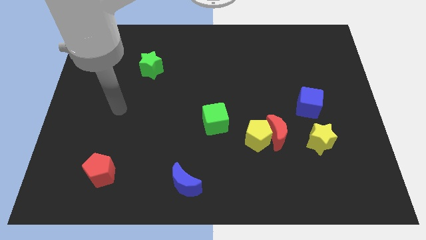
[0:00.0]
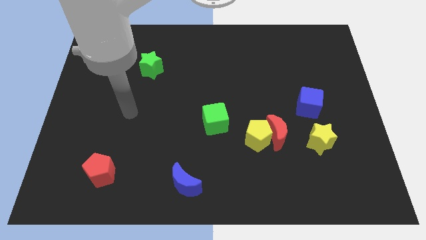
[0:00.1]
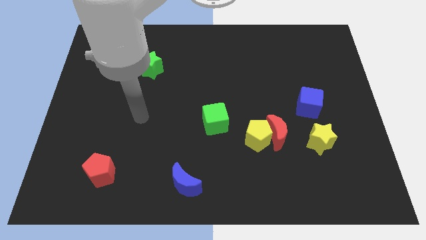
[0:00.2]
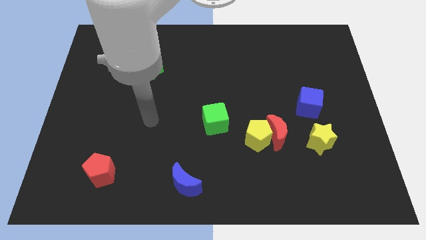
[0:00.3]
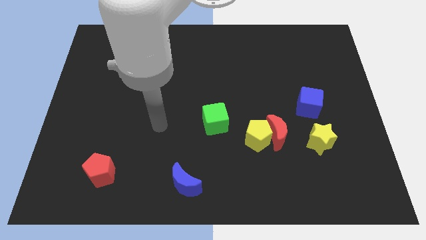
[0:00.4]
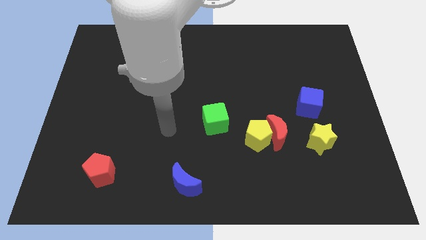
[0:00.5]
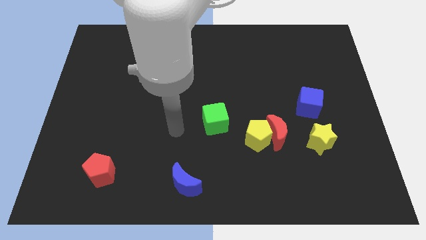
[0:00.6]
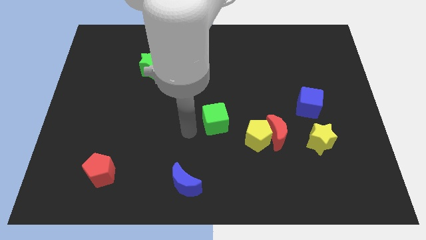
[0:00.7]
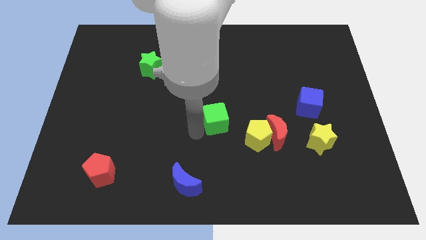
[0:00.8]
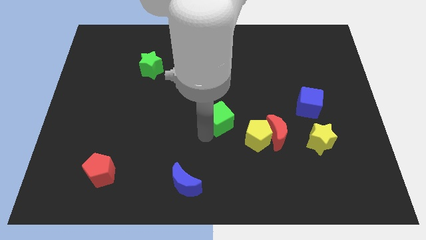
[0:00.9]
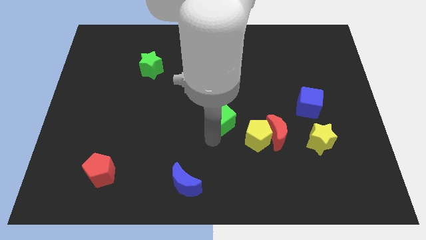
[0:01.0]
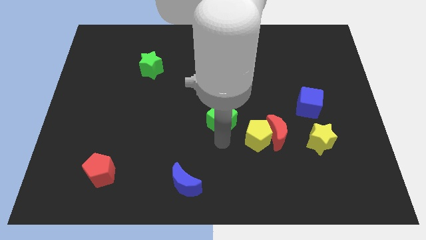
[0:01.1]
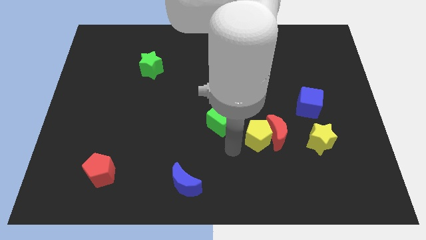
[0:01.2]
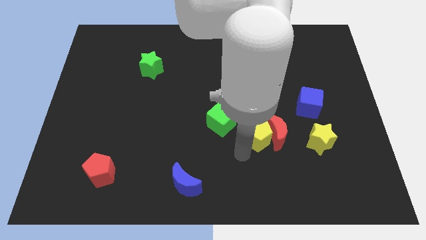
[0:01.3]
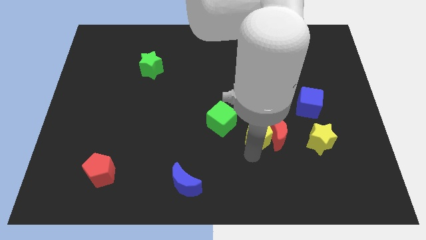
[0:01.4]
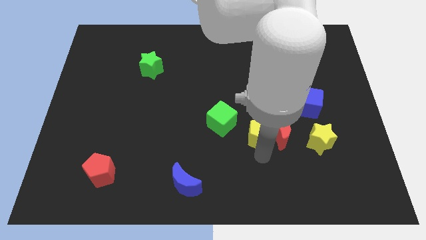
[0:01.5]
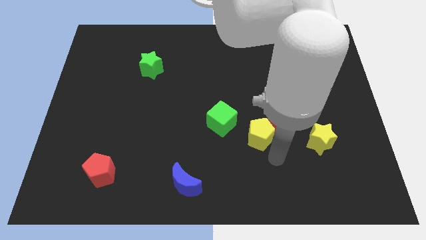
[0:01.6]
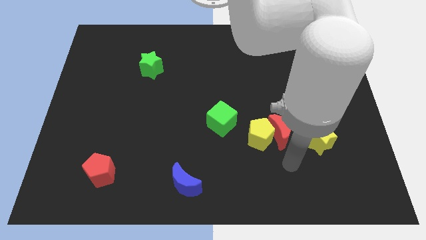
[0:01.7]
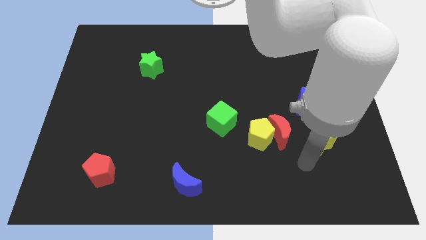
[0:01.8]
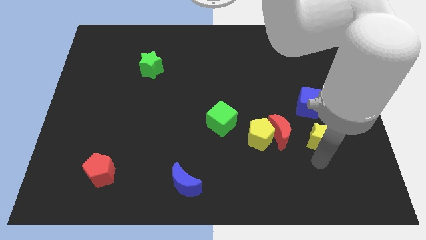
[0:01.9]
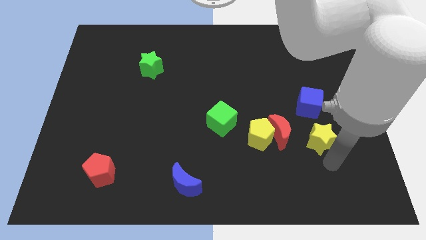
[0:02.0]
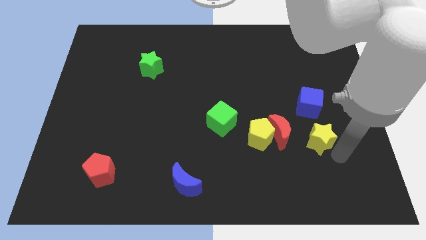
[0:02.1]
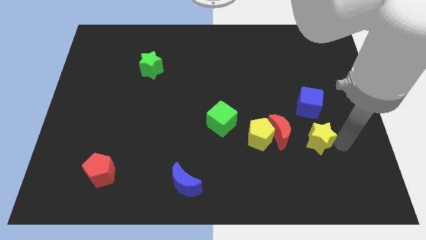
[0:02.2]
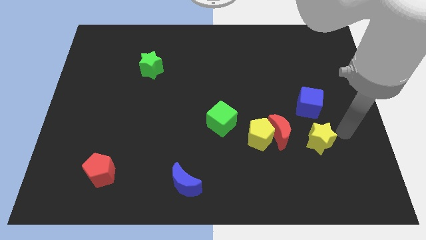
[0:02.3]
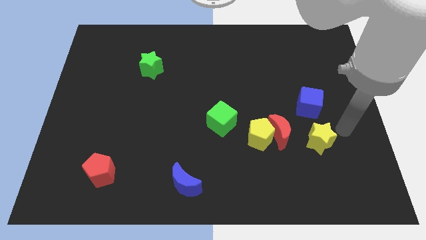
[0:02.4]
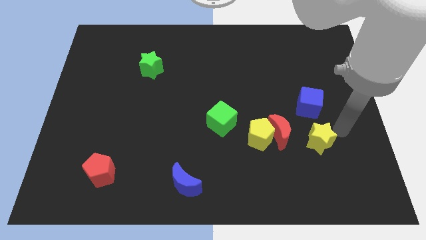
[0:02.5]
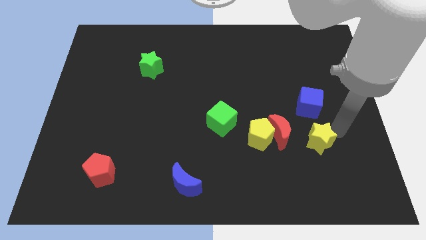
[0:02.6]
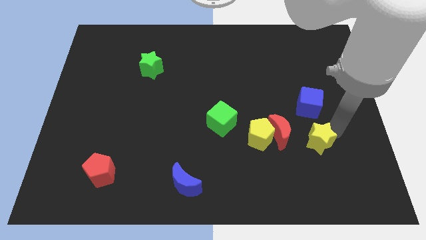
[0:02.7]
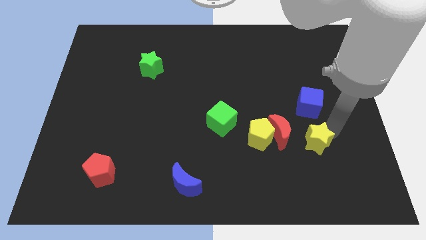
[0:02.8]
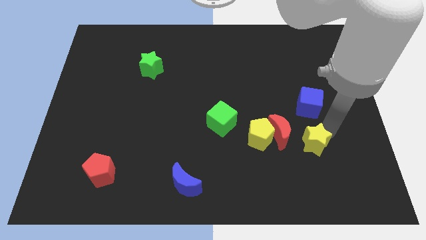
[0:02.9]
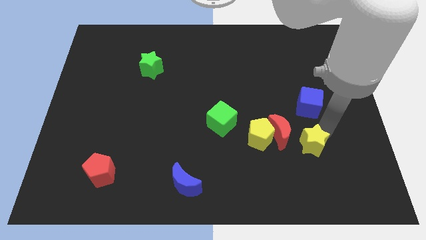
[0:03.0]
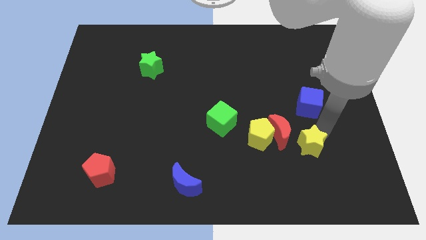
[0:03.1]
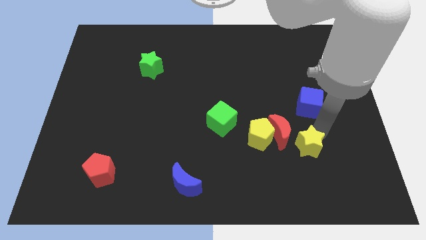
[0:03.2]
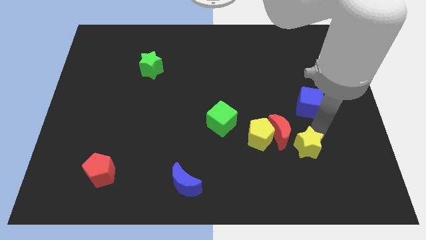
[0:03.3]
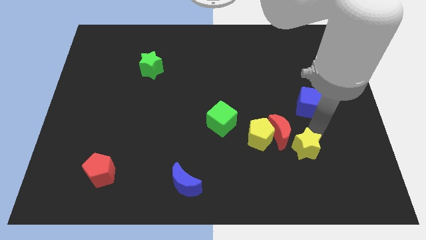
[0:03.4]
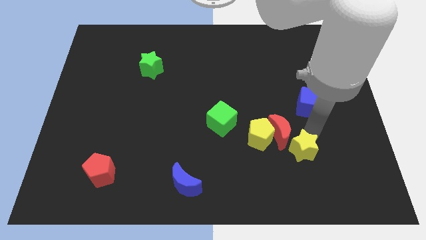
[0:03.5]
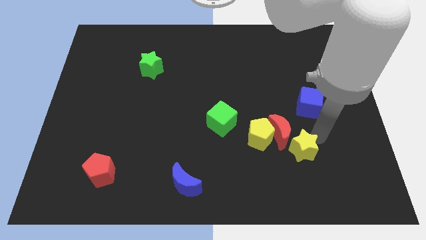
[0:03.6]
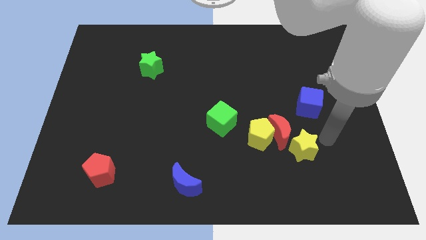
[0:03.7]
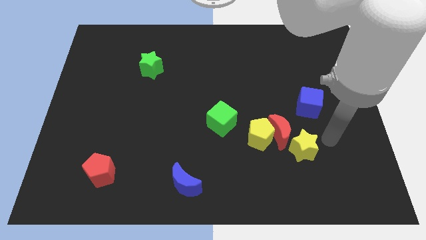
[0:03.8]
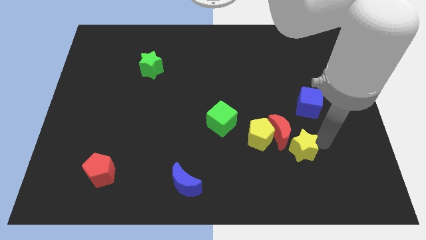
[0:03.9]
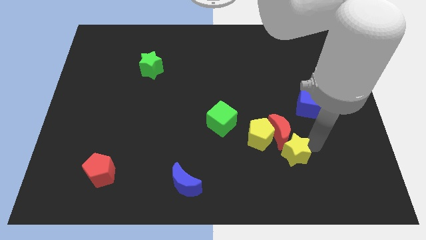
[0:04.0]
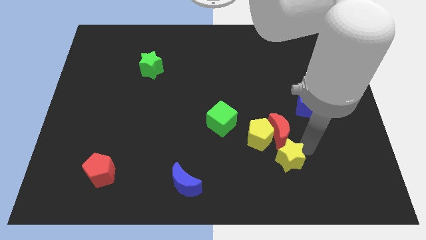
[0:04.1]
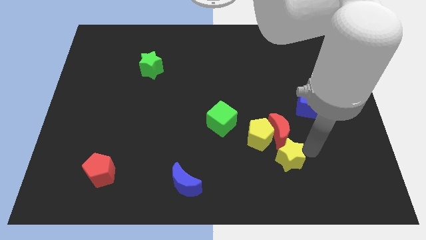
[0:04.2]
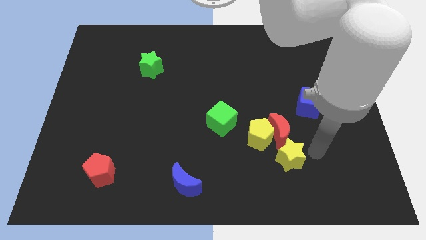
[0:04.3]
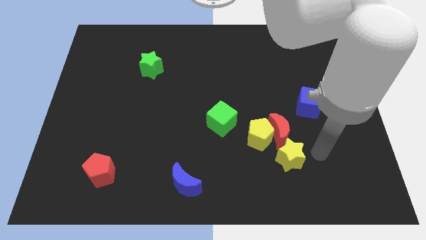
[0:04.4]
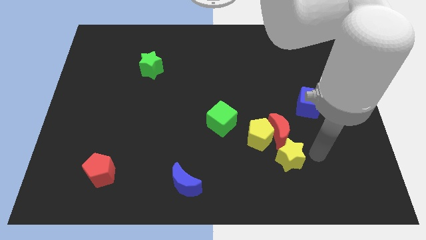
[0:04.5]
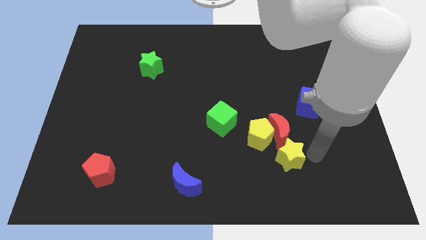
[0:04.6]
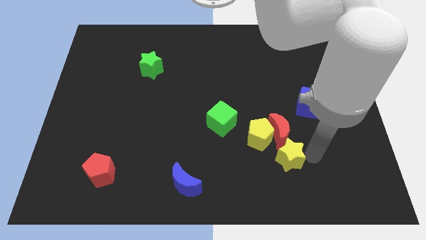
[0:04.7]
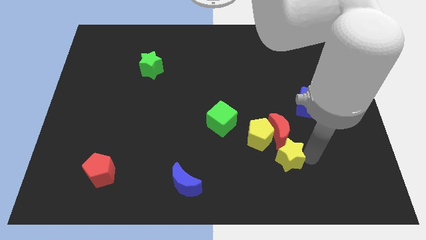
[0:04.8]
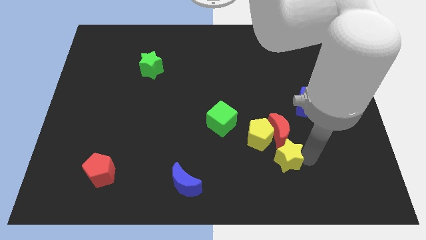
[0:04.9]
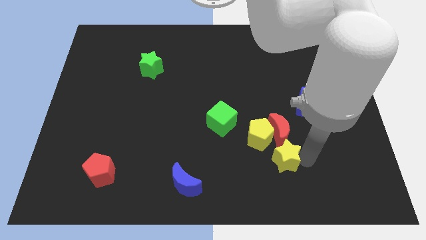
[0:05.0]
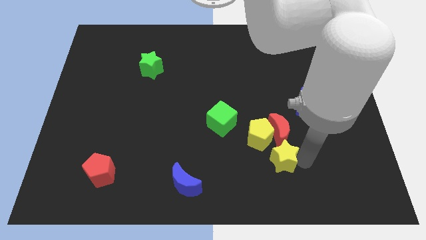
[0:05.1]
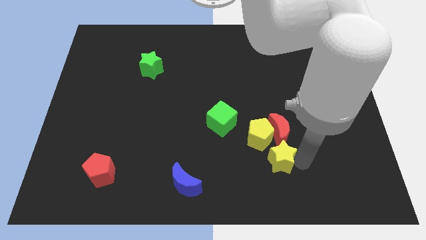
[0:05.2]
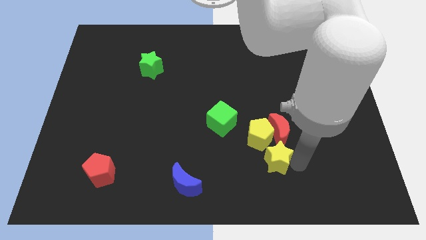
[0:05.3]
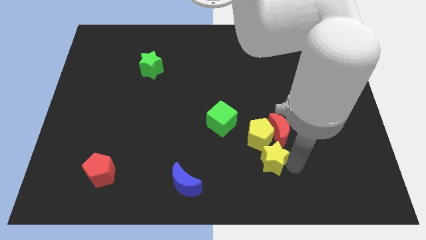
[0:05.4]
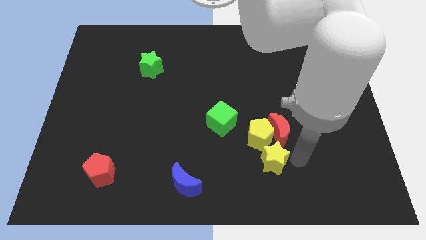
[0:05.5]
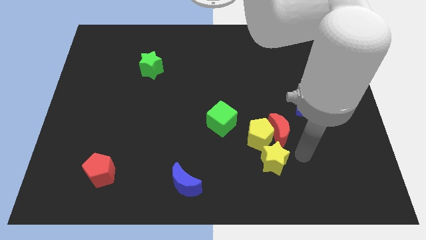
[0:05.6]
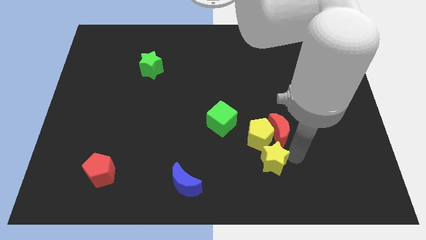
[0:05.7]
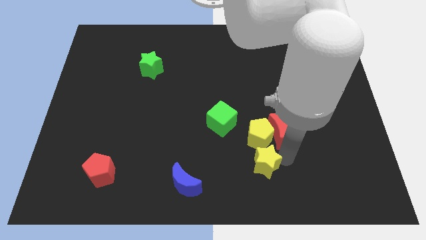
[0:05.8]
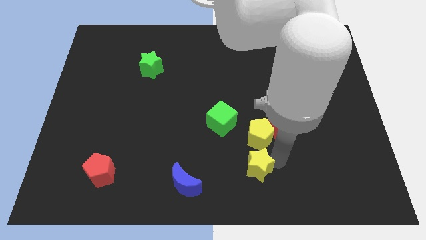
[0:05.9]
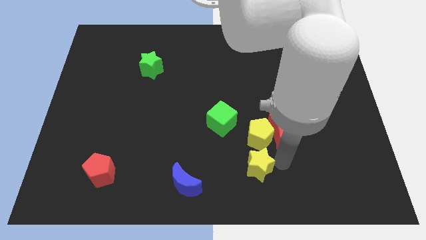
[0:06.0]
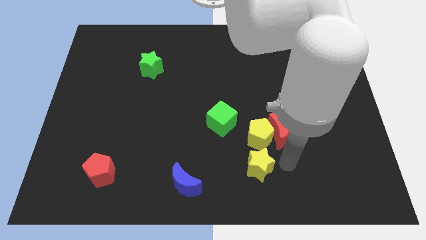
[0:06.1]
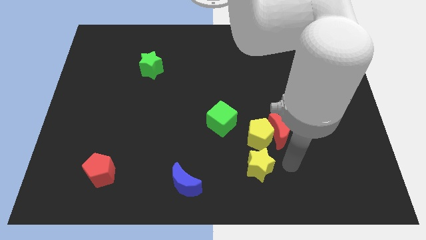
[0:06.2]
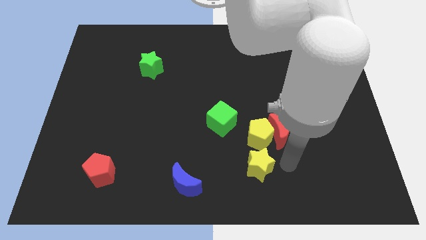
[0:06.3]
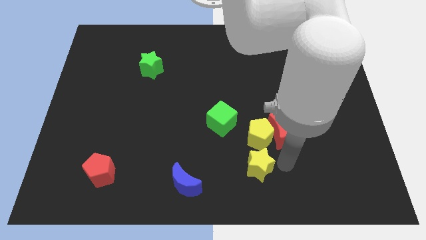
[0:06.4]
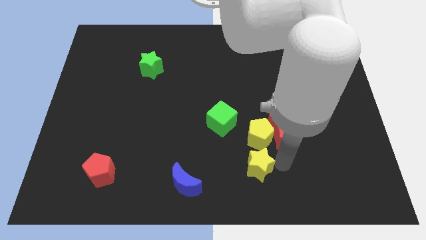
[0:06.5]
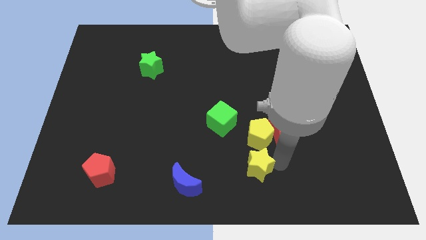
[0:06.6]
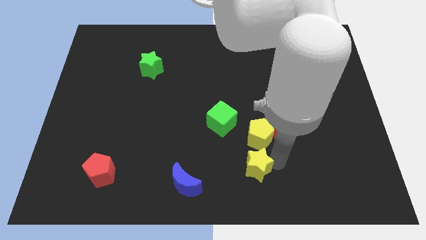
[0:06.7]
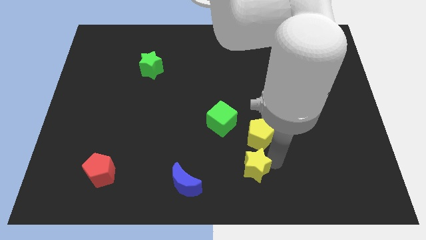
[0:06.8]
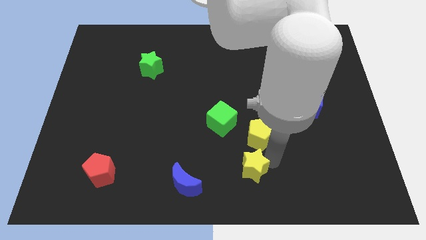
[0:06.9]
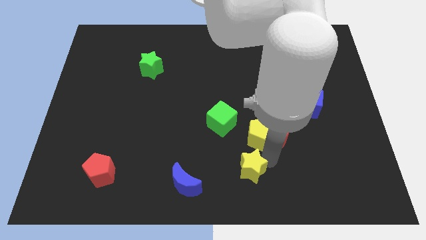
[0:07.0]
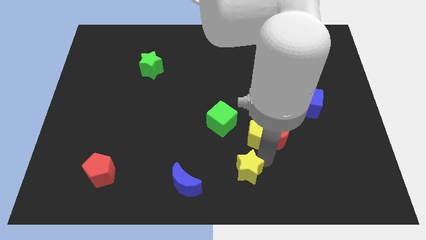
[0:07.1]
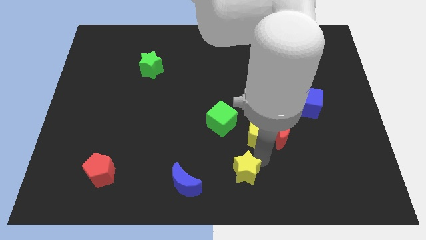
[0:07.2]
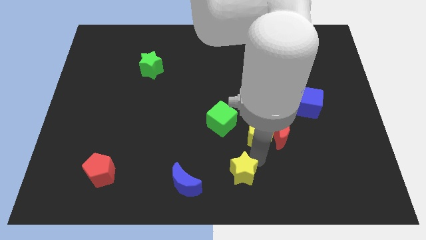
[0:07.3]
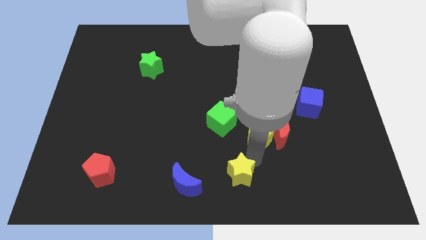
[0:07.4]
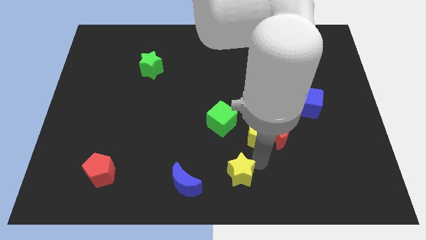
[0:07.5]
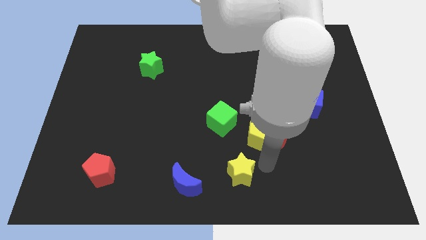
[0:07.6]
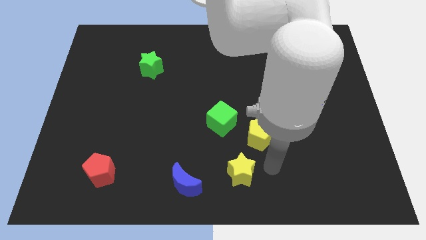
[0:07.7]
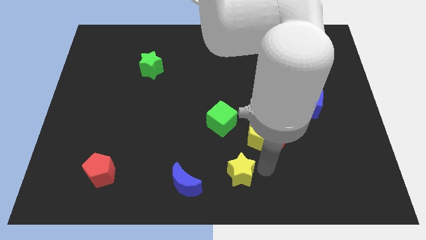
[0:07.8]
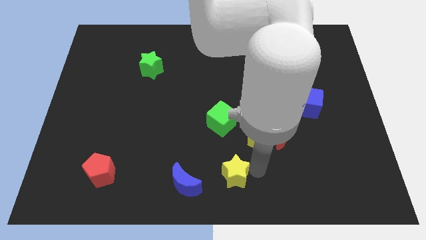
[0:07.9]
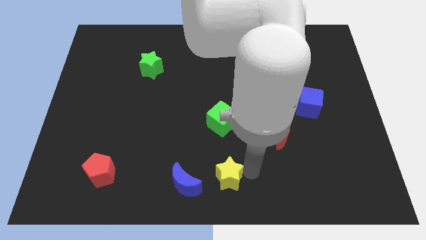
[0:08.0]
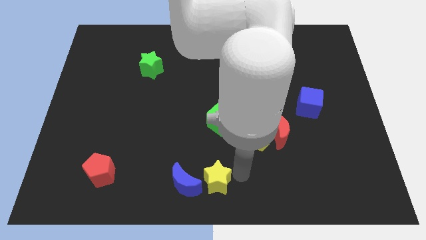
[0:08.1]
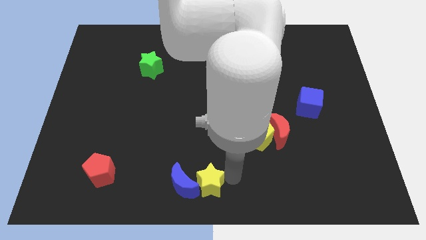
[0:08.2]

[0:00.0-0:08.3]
push the yellow star close to the blue moon
